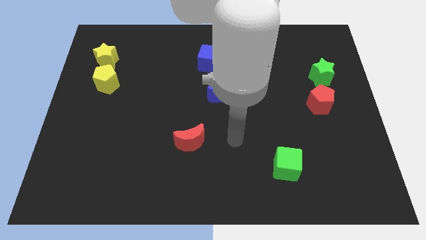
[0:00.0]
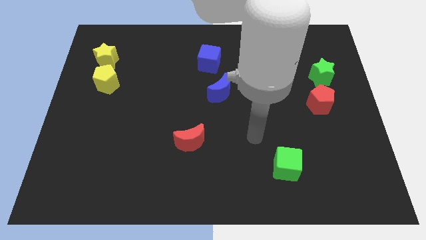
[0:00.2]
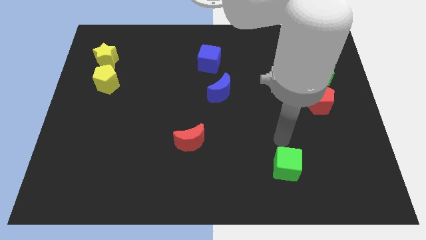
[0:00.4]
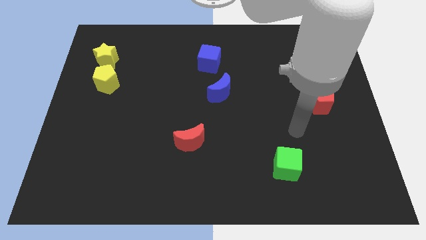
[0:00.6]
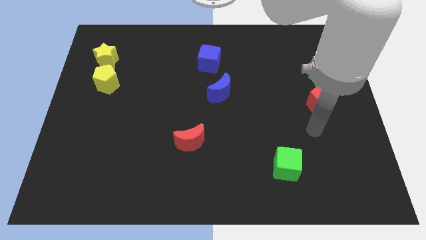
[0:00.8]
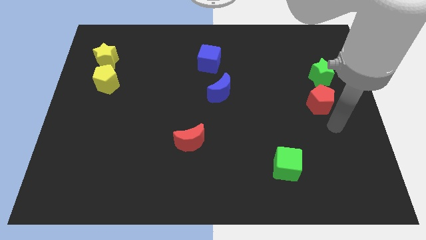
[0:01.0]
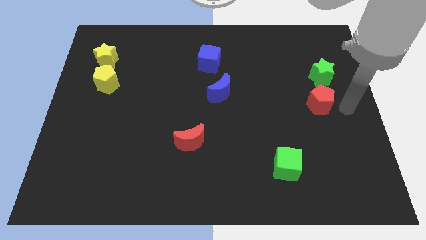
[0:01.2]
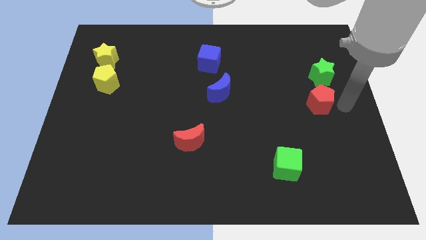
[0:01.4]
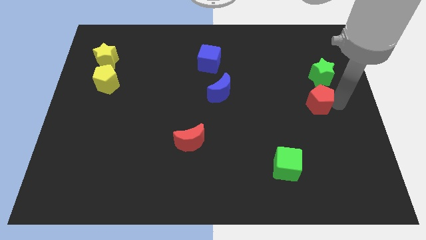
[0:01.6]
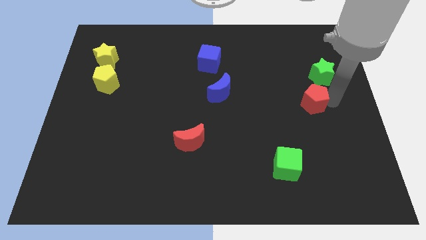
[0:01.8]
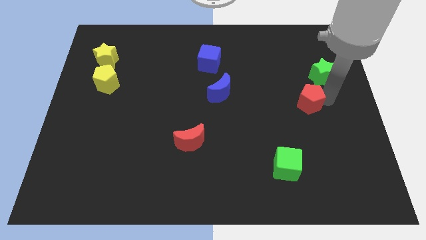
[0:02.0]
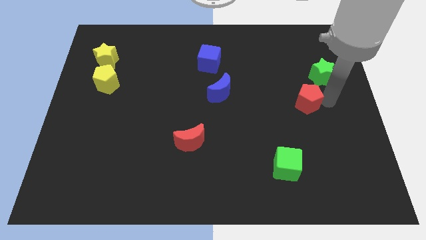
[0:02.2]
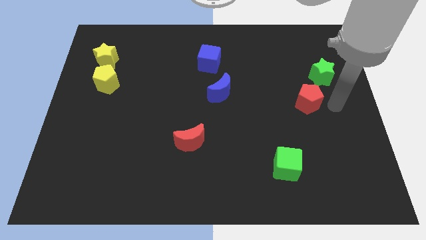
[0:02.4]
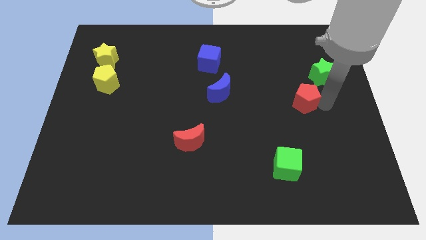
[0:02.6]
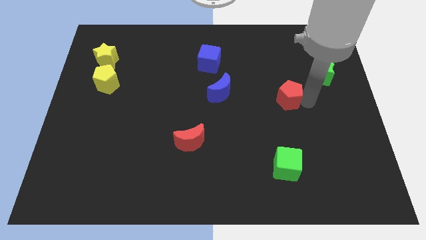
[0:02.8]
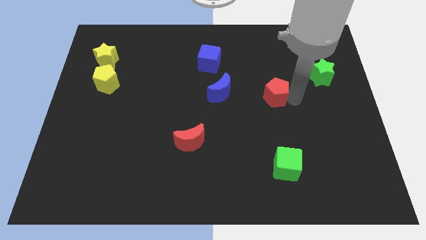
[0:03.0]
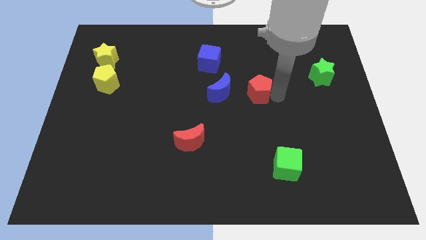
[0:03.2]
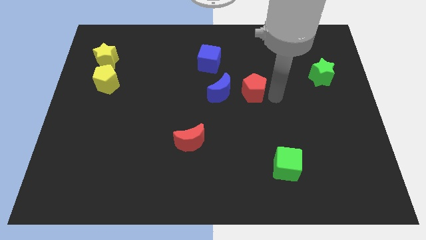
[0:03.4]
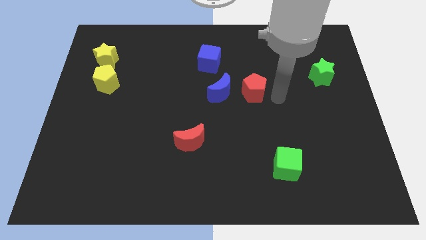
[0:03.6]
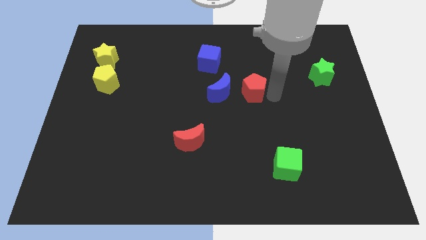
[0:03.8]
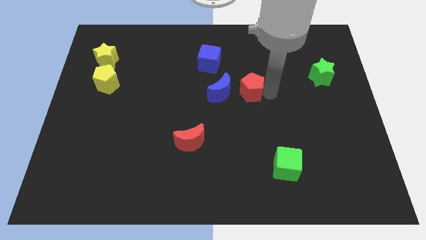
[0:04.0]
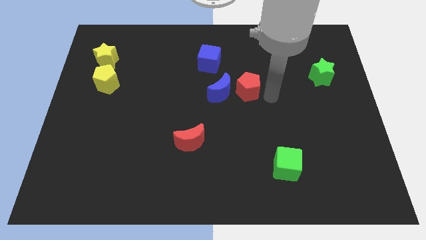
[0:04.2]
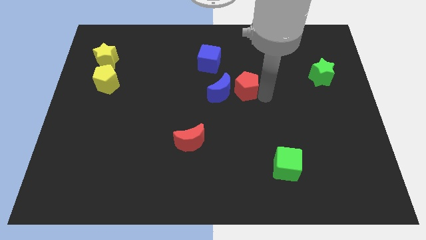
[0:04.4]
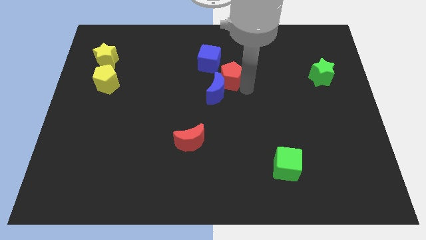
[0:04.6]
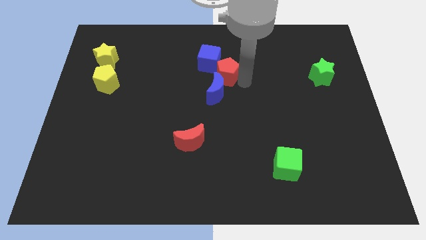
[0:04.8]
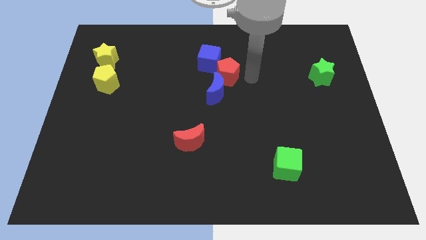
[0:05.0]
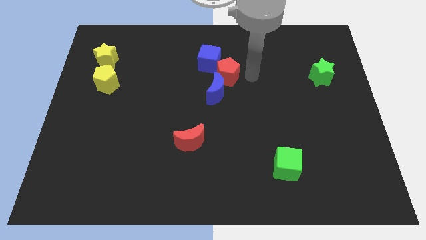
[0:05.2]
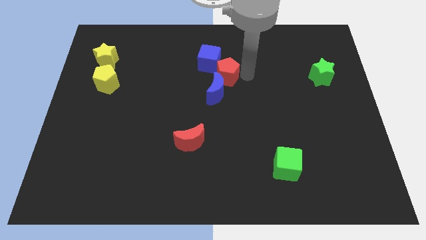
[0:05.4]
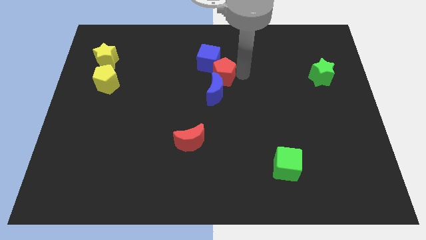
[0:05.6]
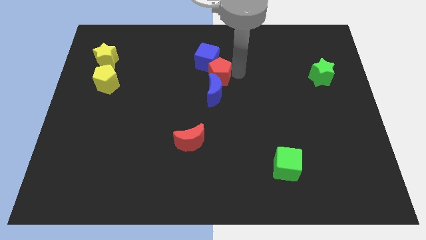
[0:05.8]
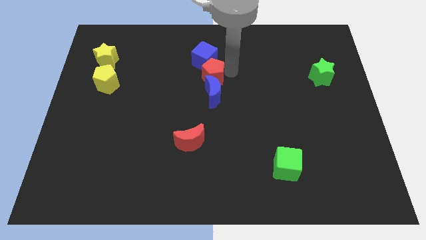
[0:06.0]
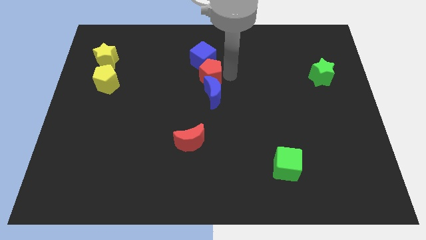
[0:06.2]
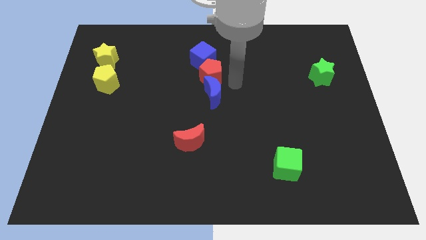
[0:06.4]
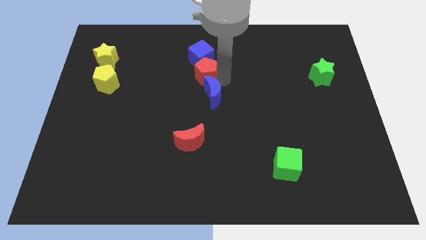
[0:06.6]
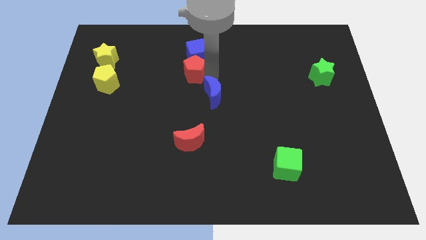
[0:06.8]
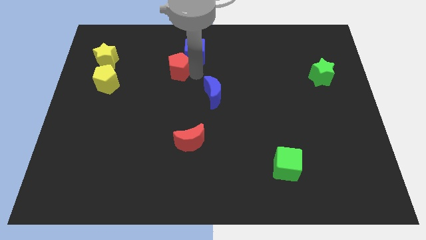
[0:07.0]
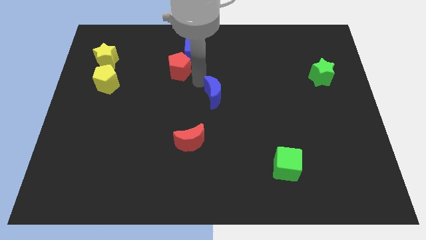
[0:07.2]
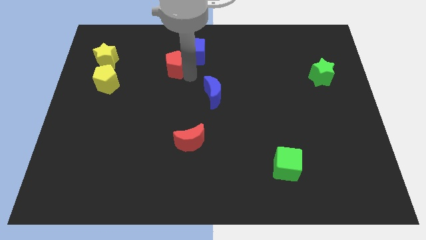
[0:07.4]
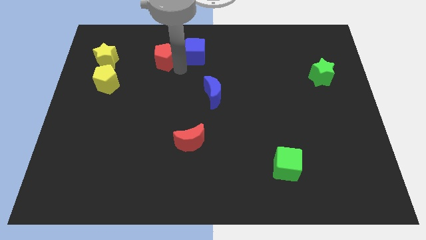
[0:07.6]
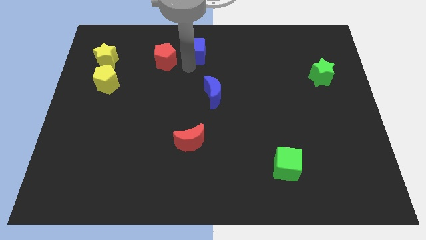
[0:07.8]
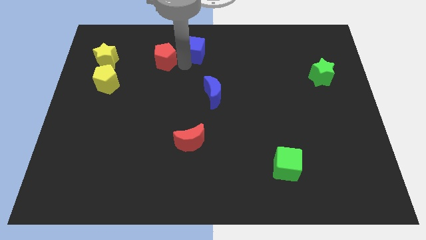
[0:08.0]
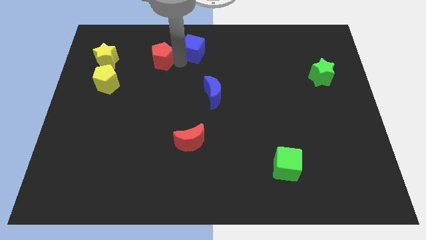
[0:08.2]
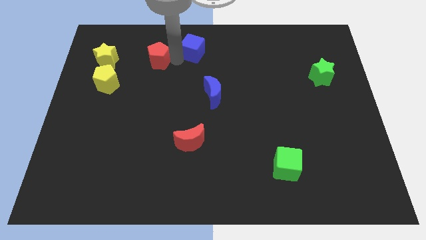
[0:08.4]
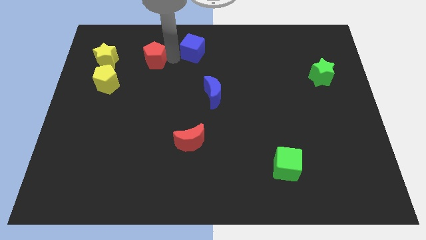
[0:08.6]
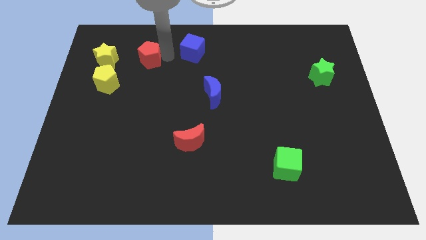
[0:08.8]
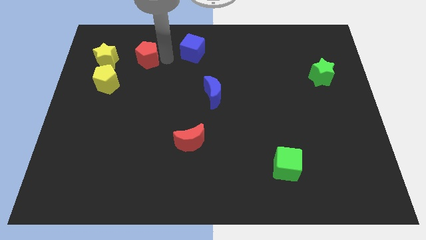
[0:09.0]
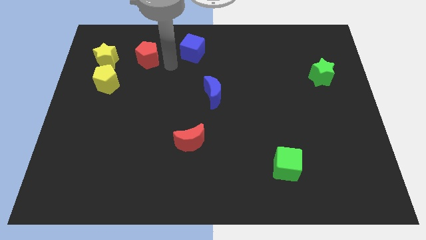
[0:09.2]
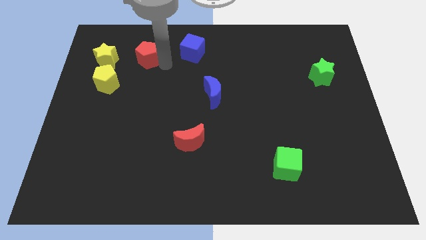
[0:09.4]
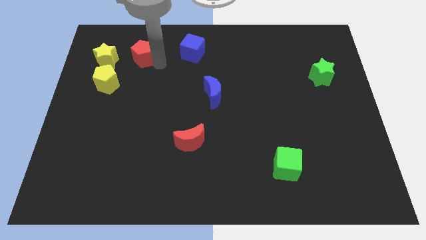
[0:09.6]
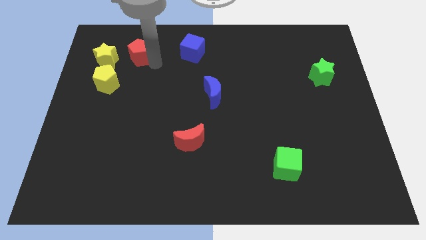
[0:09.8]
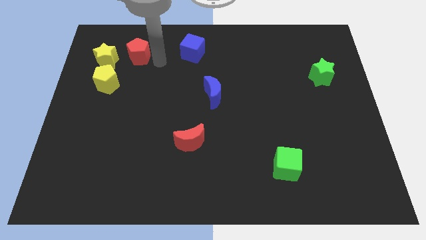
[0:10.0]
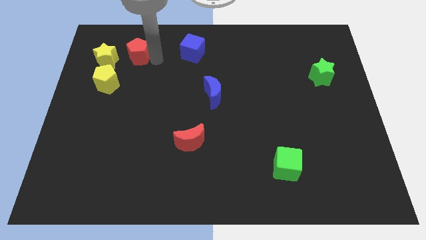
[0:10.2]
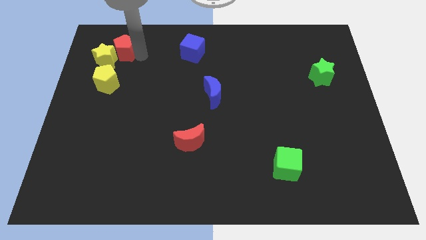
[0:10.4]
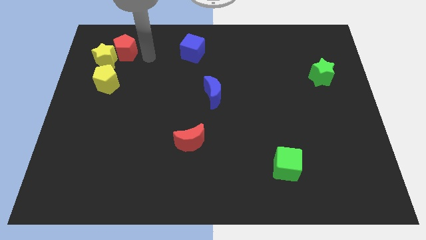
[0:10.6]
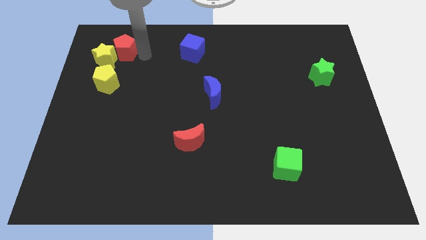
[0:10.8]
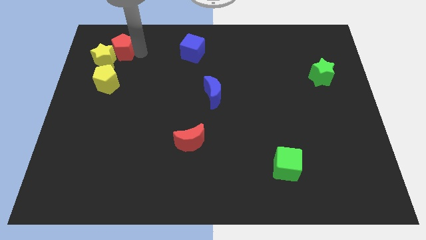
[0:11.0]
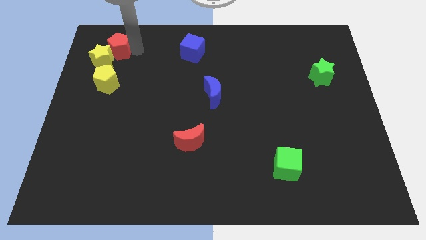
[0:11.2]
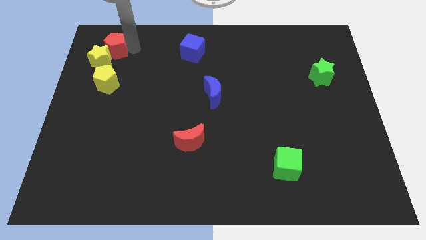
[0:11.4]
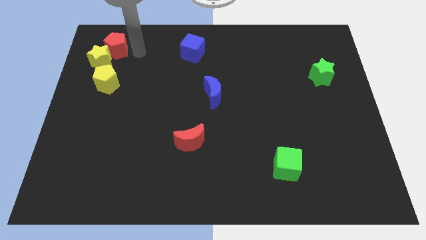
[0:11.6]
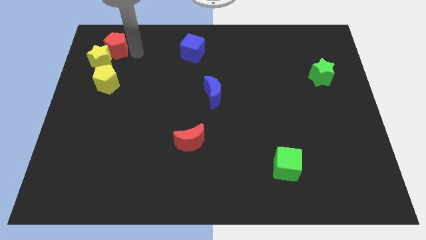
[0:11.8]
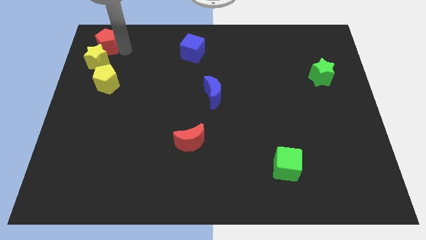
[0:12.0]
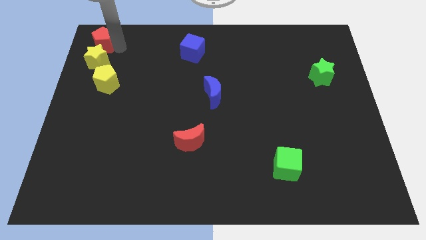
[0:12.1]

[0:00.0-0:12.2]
move the red pentagon to the top left

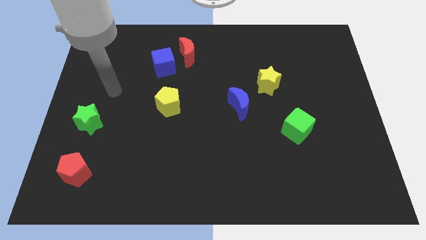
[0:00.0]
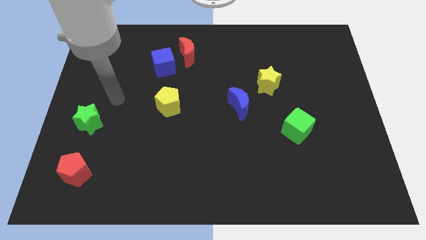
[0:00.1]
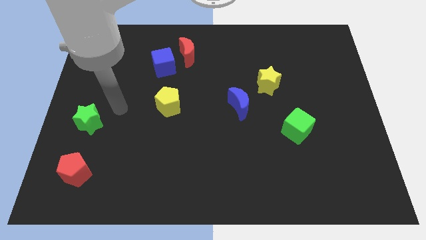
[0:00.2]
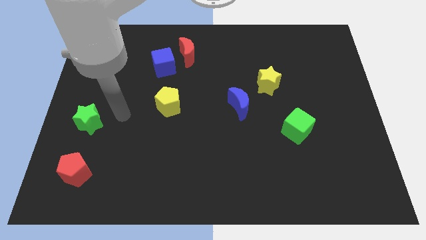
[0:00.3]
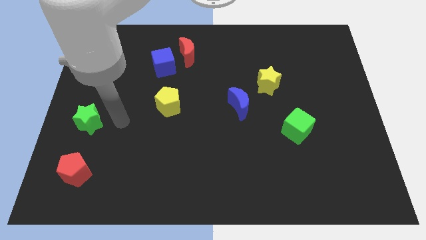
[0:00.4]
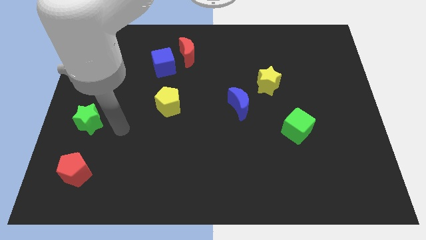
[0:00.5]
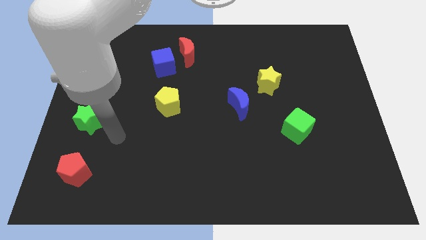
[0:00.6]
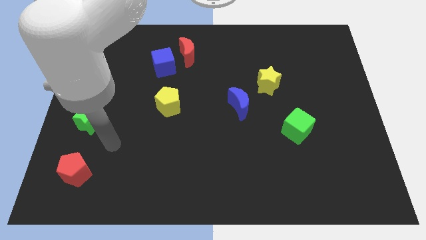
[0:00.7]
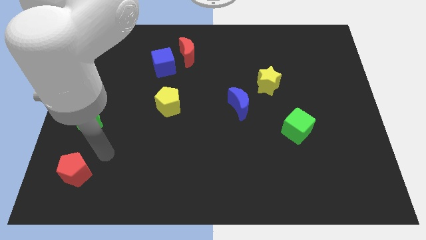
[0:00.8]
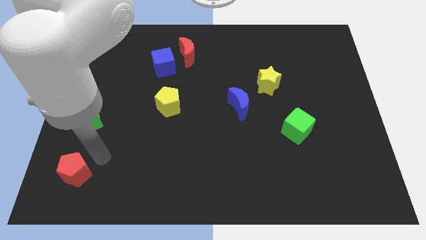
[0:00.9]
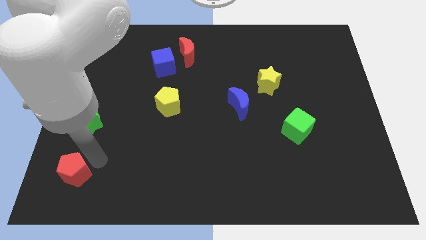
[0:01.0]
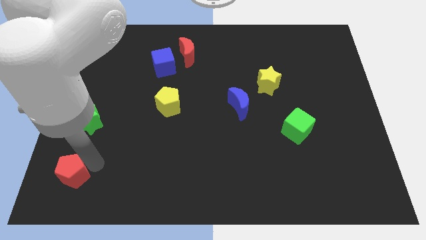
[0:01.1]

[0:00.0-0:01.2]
slide the red pentagon to the lower left corner
